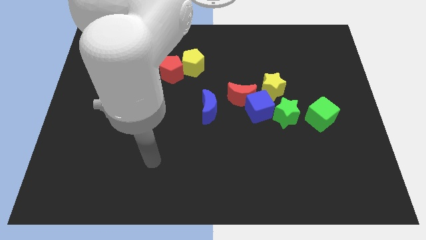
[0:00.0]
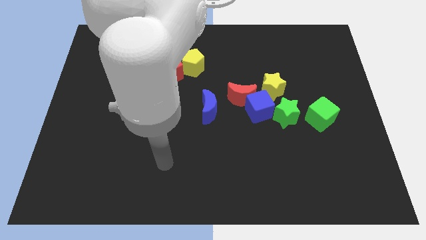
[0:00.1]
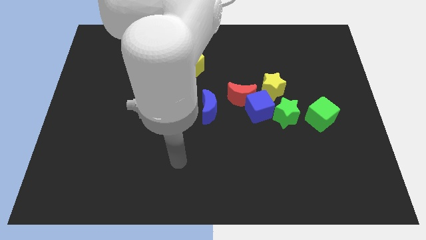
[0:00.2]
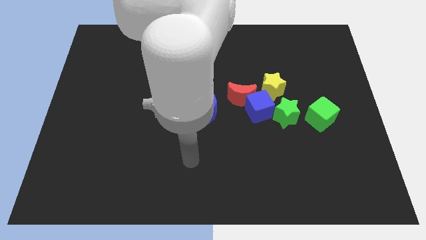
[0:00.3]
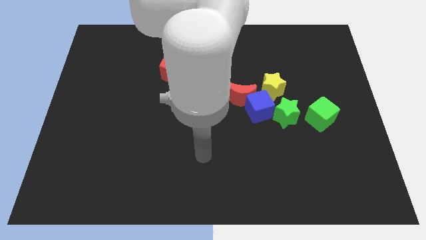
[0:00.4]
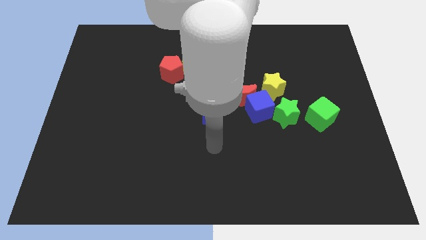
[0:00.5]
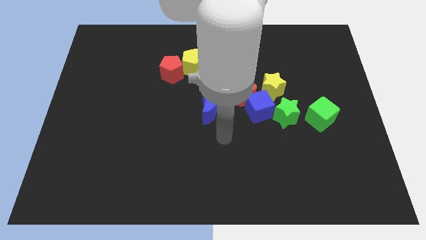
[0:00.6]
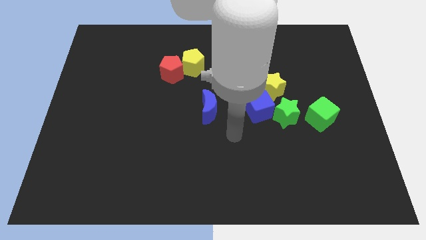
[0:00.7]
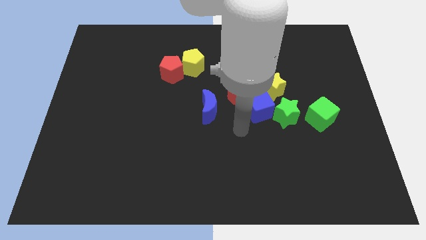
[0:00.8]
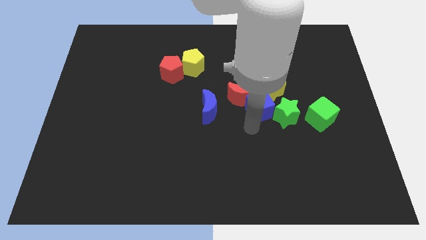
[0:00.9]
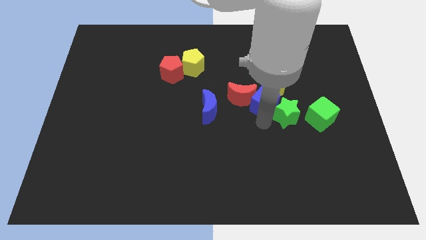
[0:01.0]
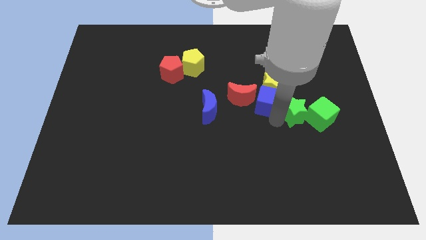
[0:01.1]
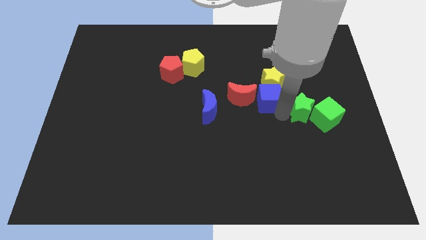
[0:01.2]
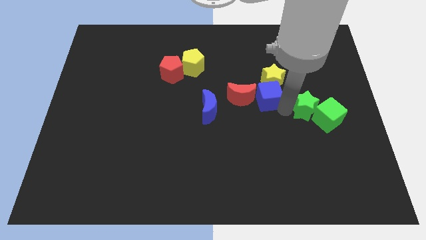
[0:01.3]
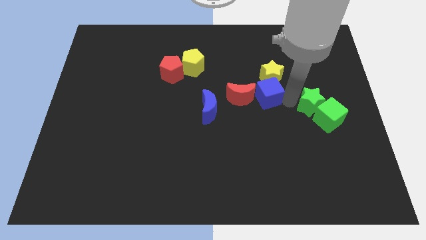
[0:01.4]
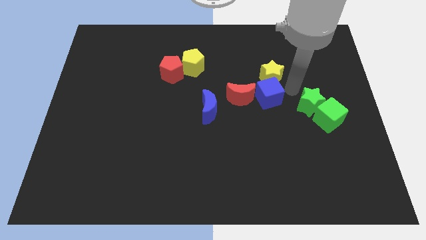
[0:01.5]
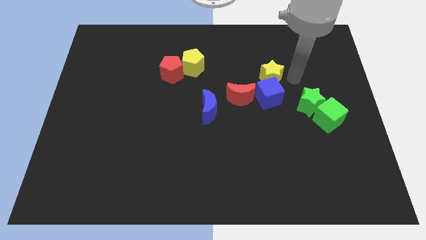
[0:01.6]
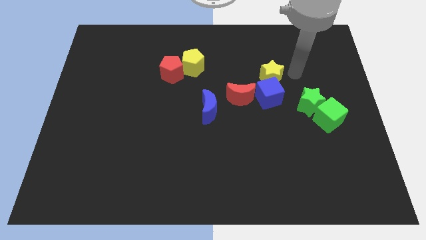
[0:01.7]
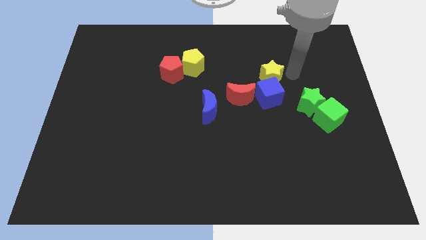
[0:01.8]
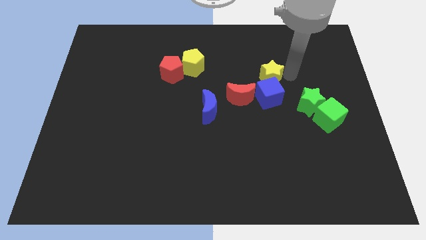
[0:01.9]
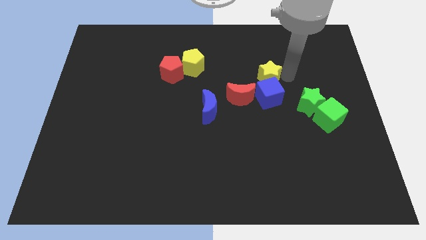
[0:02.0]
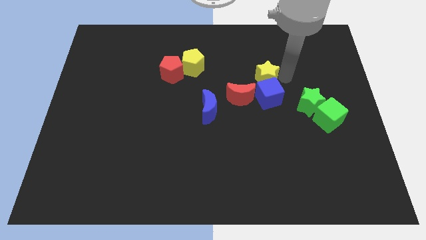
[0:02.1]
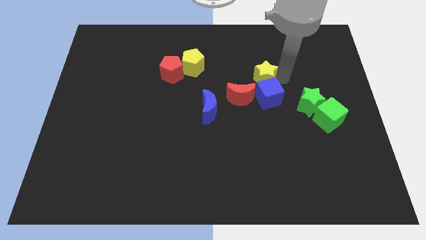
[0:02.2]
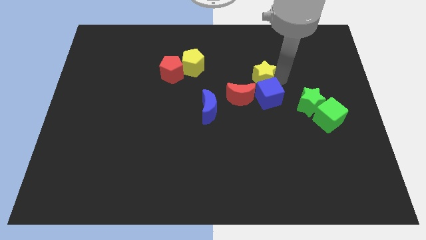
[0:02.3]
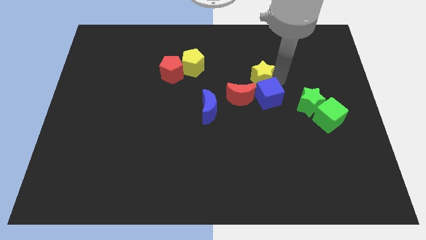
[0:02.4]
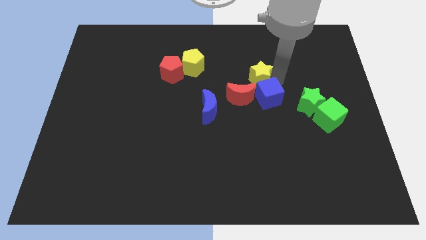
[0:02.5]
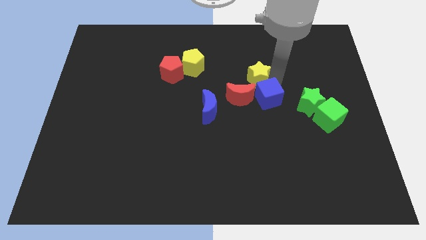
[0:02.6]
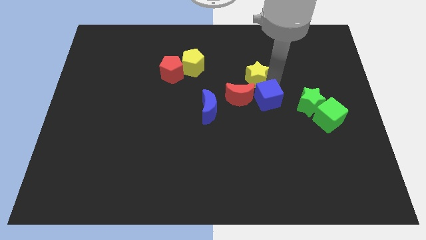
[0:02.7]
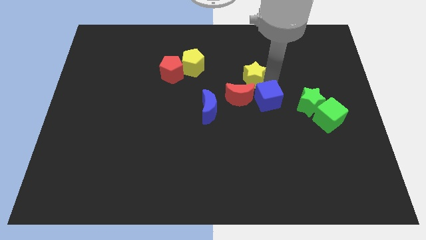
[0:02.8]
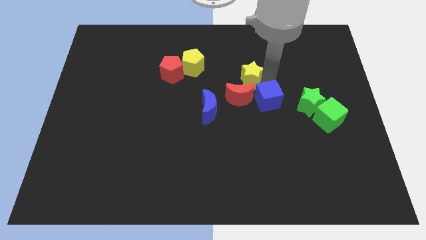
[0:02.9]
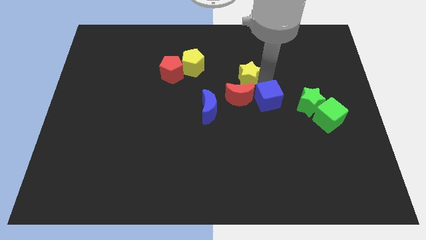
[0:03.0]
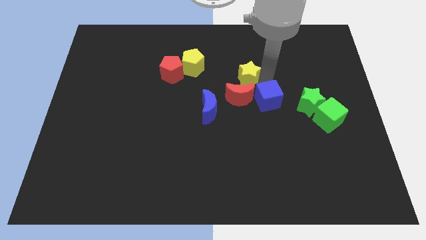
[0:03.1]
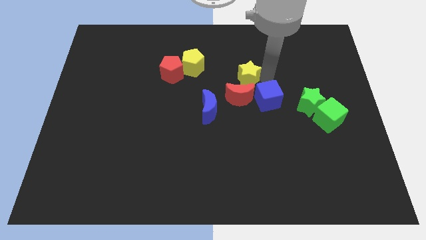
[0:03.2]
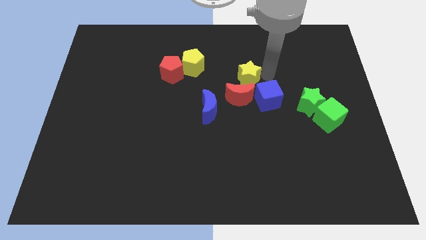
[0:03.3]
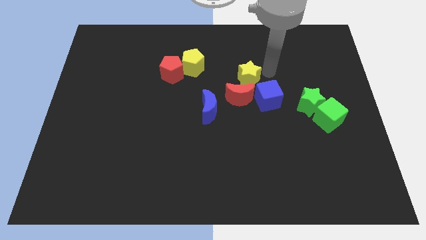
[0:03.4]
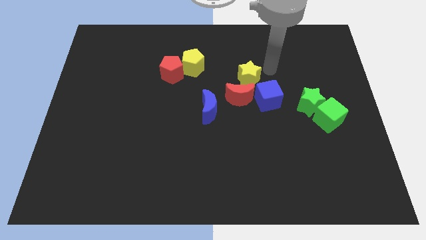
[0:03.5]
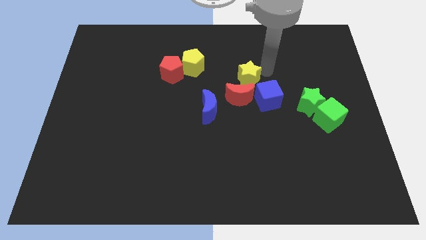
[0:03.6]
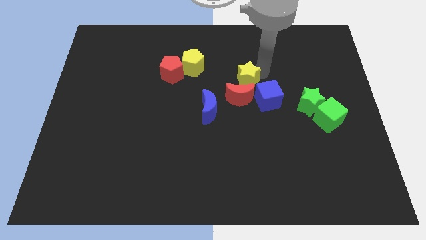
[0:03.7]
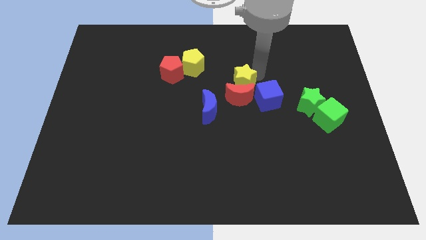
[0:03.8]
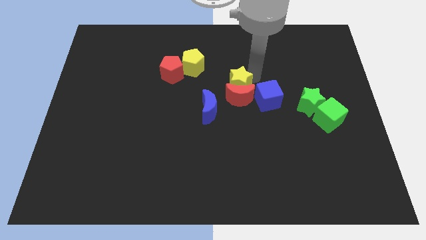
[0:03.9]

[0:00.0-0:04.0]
push the yellow star somewhat left

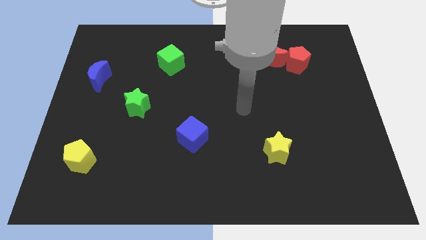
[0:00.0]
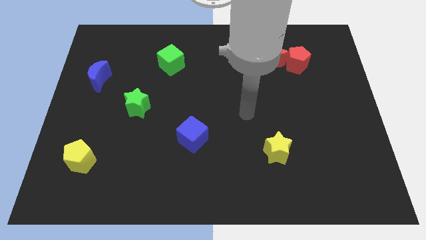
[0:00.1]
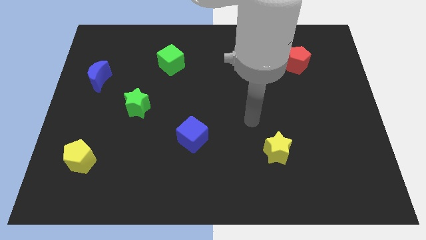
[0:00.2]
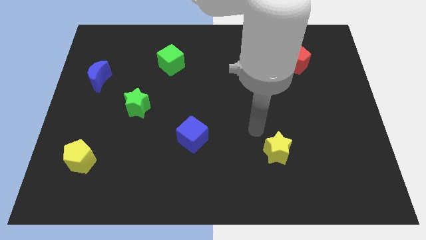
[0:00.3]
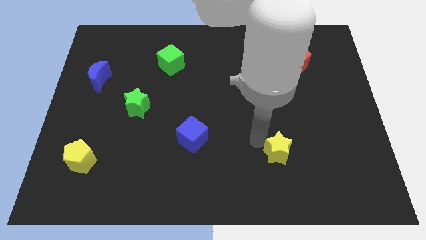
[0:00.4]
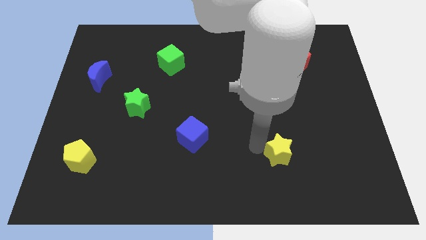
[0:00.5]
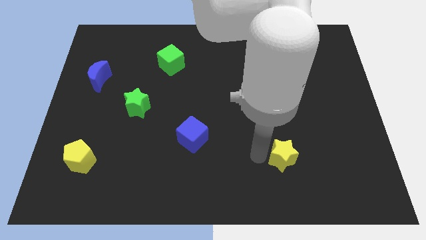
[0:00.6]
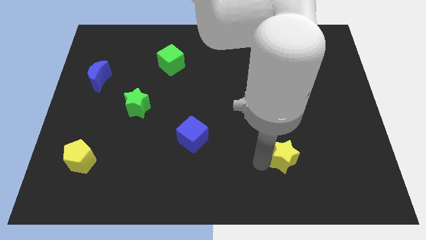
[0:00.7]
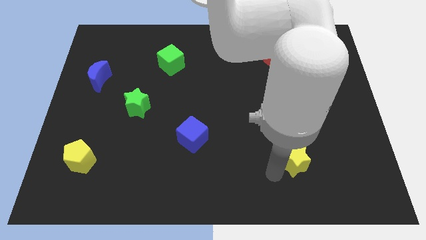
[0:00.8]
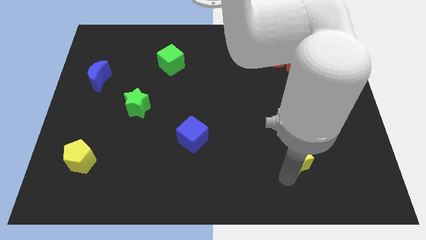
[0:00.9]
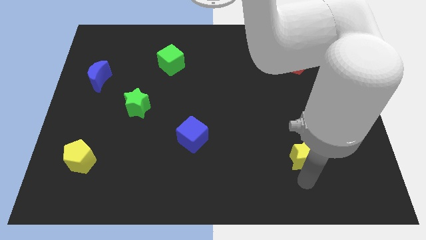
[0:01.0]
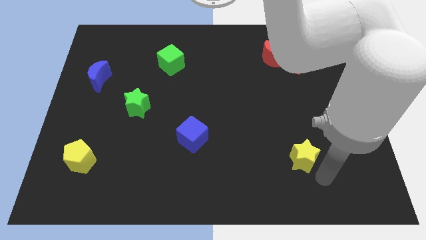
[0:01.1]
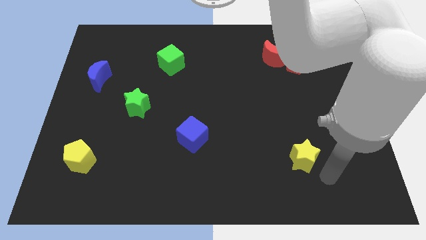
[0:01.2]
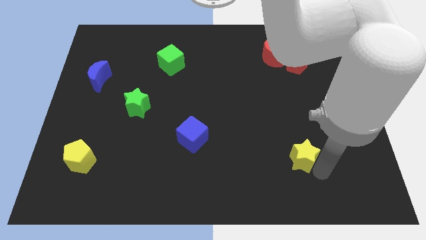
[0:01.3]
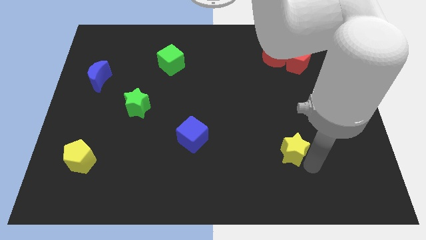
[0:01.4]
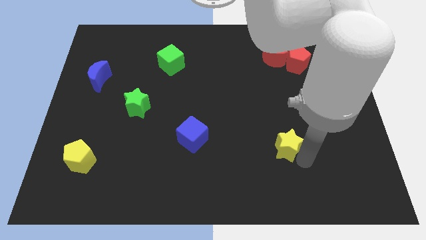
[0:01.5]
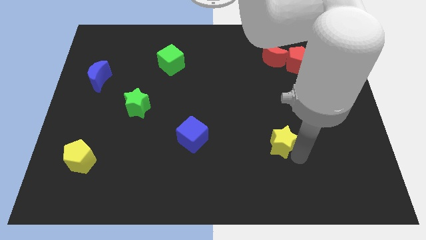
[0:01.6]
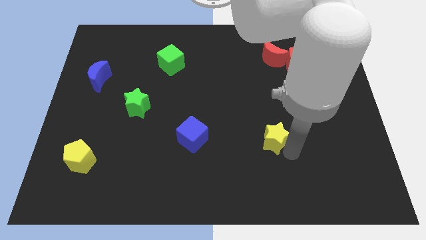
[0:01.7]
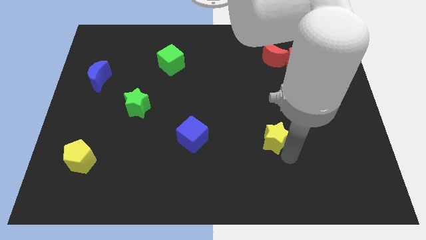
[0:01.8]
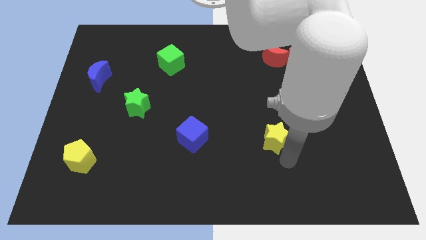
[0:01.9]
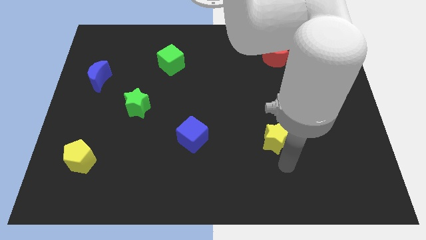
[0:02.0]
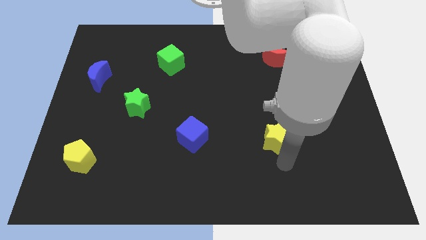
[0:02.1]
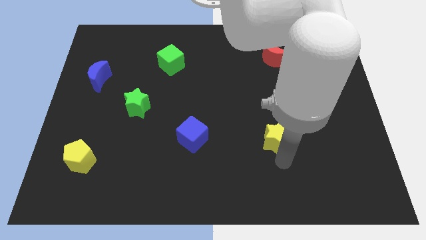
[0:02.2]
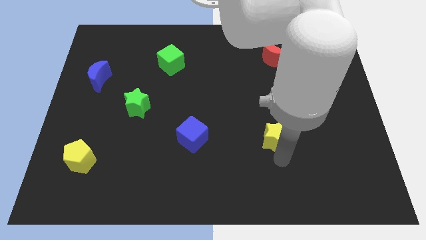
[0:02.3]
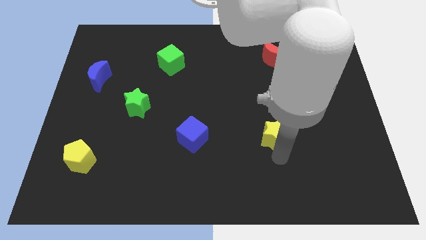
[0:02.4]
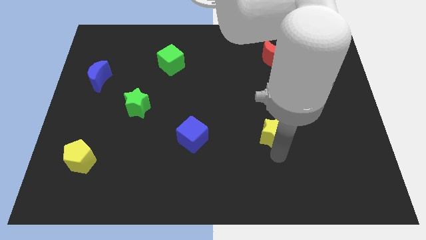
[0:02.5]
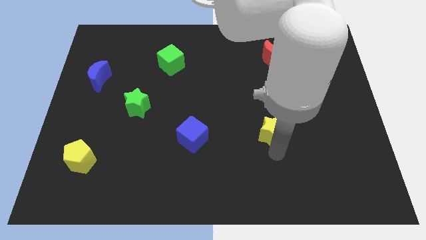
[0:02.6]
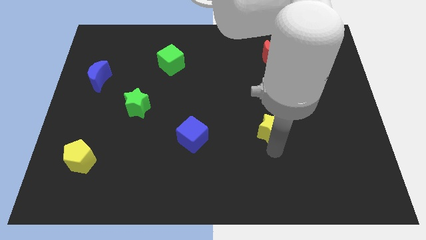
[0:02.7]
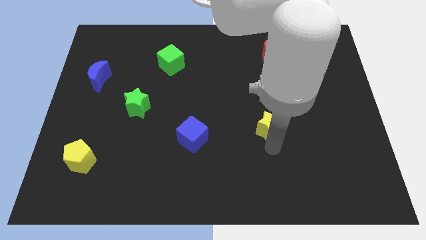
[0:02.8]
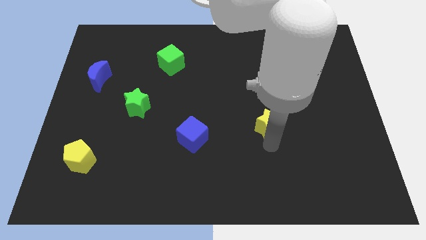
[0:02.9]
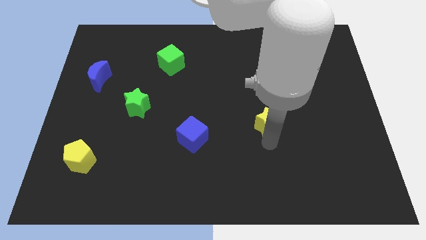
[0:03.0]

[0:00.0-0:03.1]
push the yellow star upwards a little bit

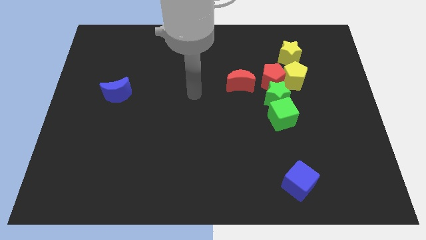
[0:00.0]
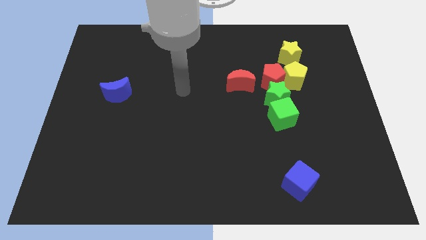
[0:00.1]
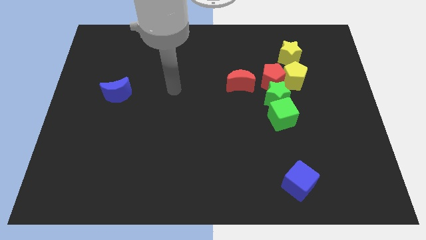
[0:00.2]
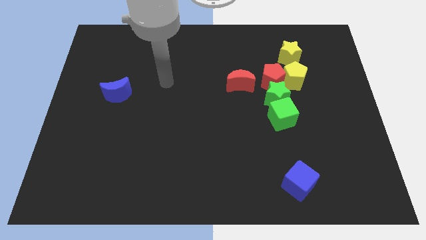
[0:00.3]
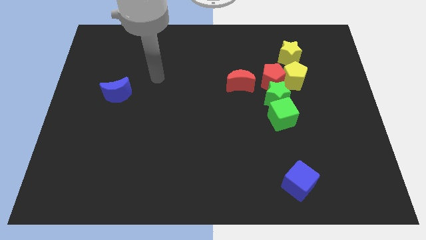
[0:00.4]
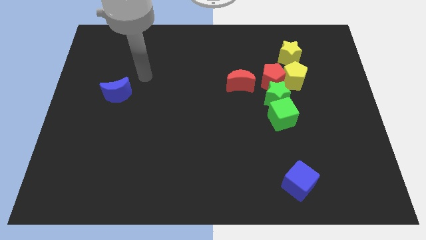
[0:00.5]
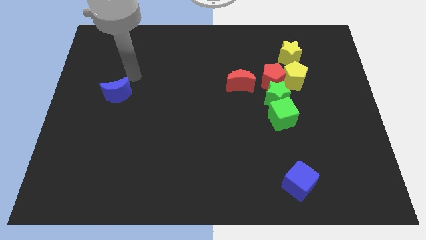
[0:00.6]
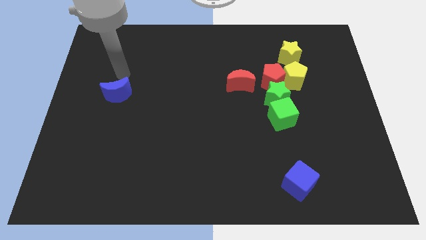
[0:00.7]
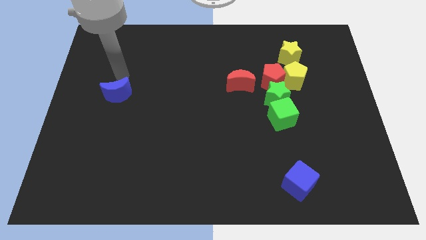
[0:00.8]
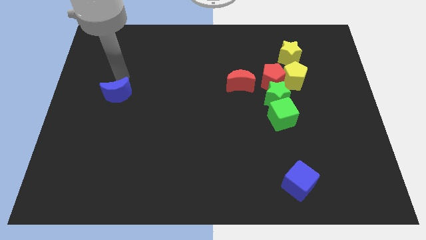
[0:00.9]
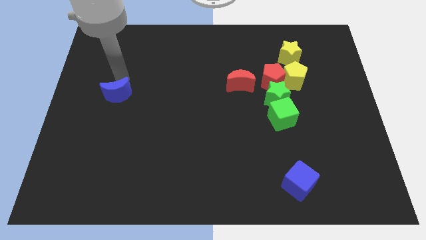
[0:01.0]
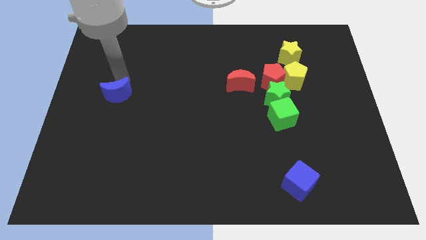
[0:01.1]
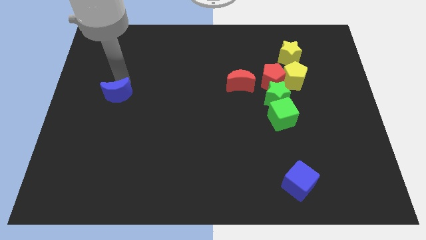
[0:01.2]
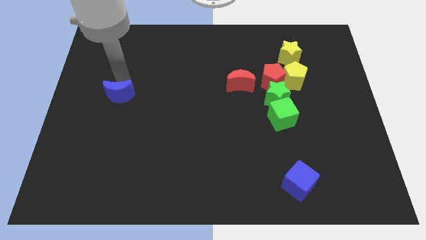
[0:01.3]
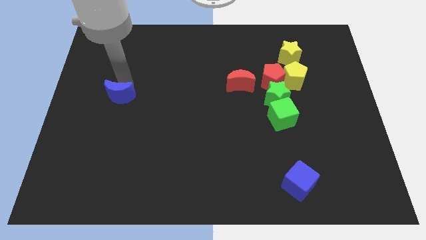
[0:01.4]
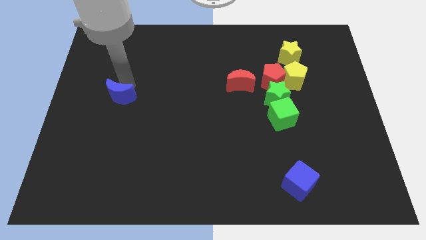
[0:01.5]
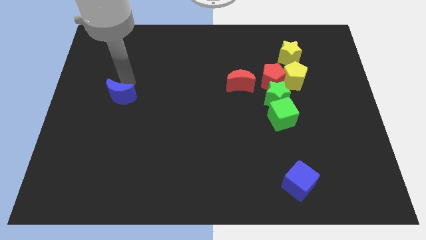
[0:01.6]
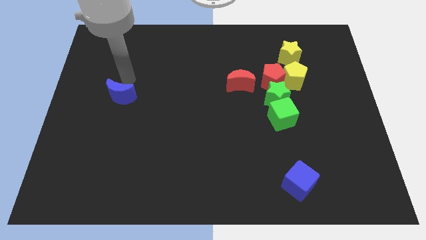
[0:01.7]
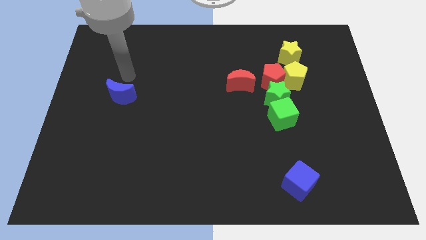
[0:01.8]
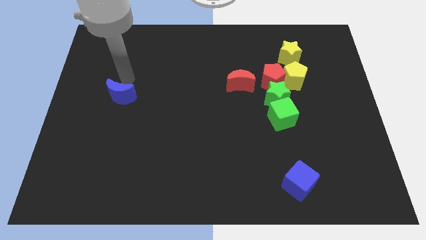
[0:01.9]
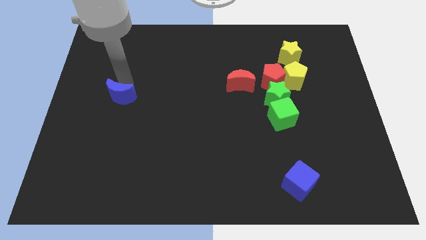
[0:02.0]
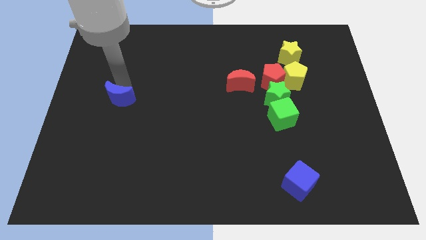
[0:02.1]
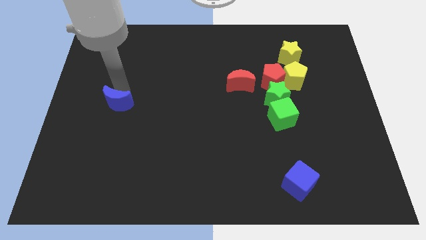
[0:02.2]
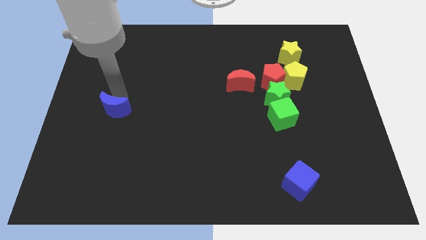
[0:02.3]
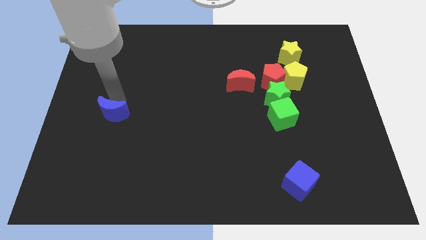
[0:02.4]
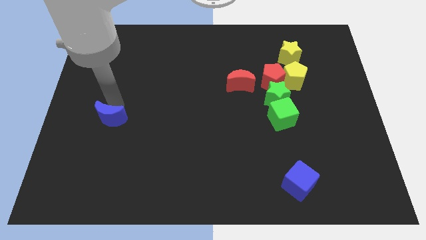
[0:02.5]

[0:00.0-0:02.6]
slightly move the blue moon downwards
